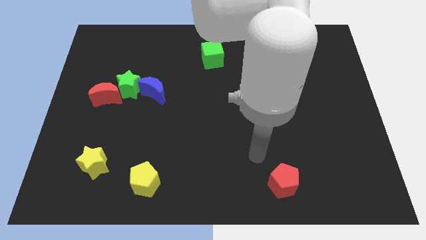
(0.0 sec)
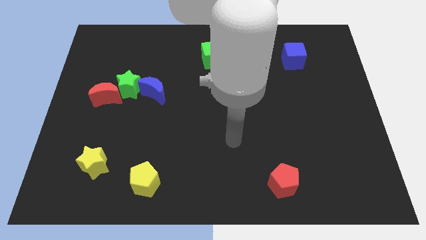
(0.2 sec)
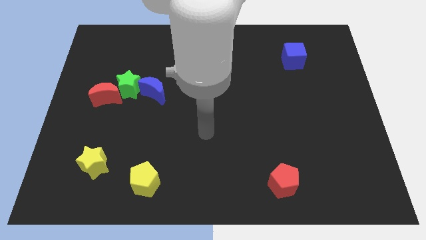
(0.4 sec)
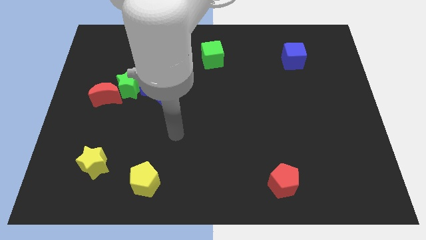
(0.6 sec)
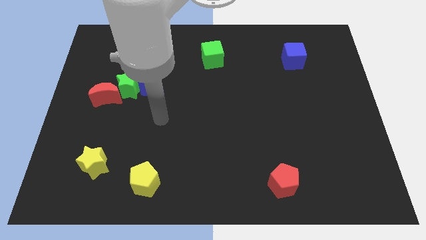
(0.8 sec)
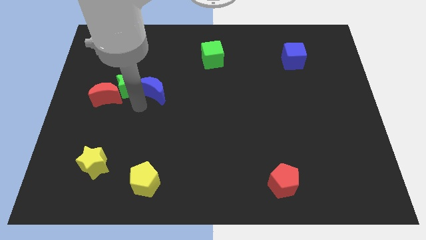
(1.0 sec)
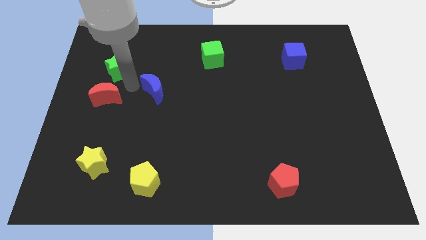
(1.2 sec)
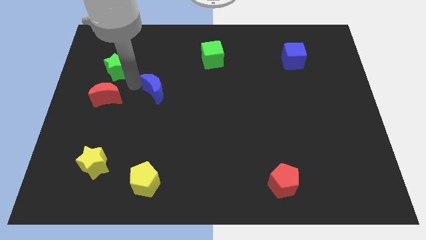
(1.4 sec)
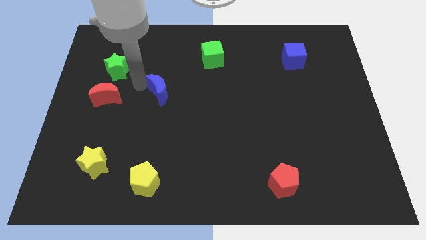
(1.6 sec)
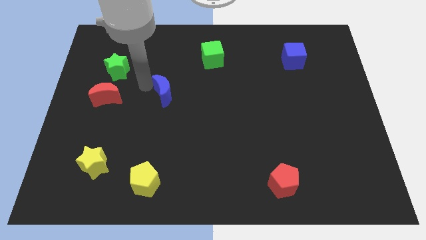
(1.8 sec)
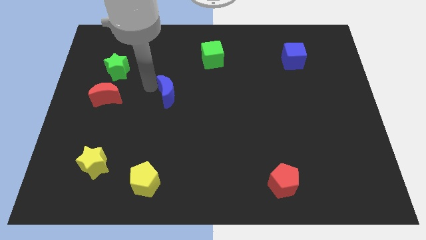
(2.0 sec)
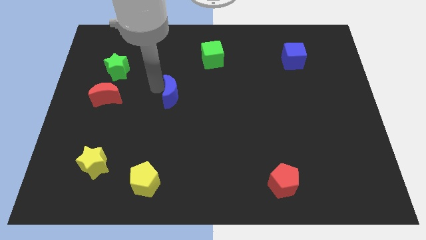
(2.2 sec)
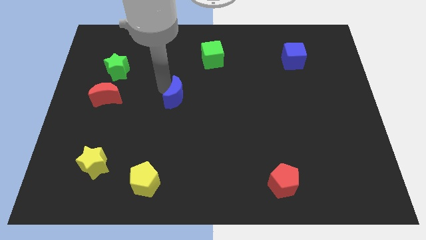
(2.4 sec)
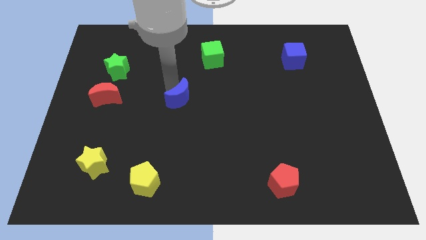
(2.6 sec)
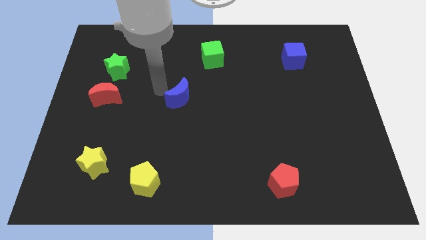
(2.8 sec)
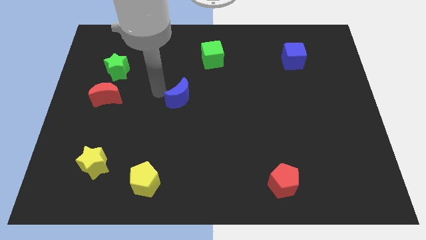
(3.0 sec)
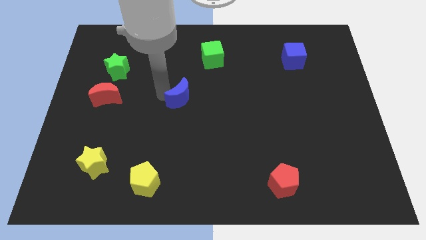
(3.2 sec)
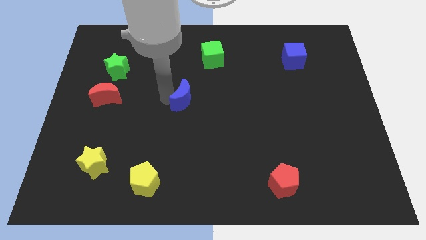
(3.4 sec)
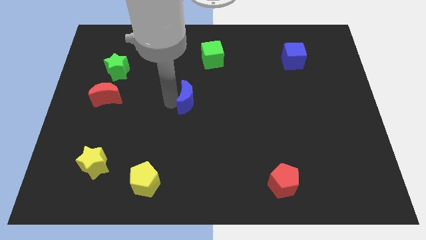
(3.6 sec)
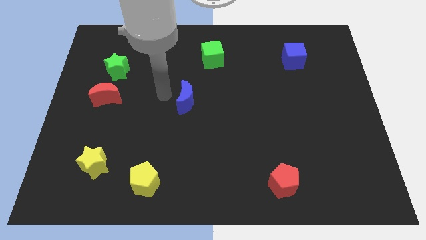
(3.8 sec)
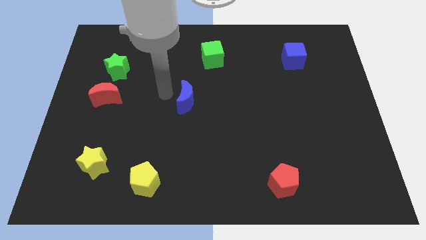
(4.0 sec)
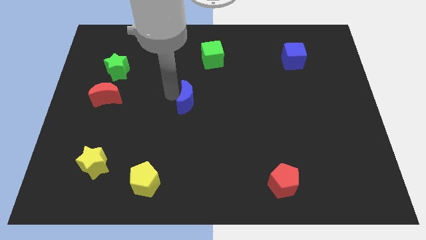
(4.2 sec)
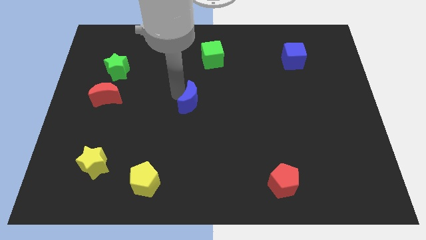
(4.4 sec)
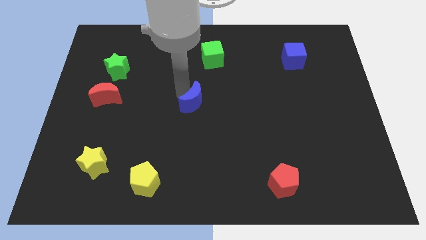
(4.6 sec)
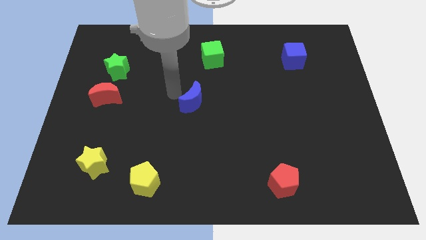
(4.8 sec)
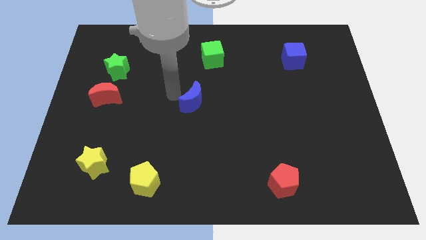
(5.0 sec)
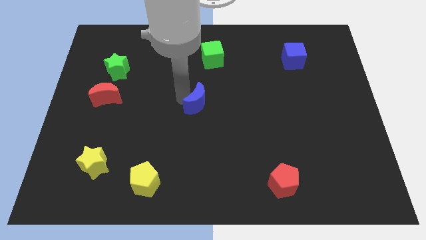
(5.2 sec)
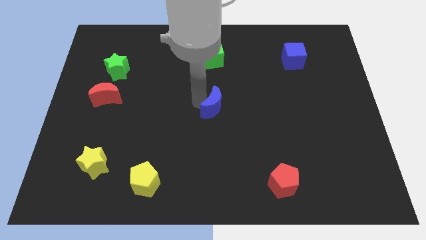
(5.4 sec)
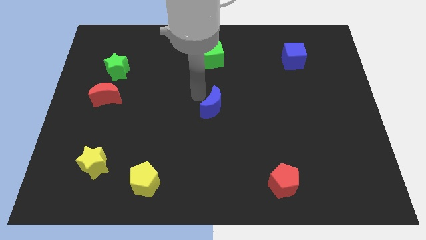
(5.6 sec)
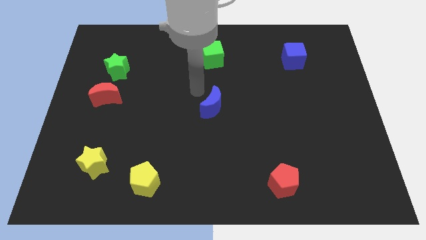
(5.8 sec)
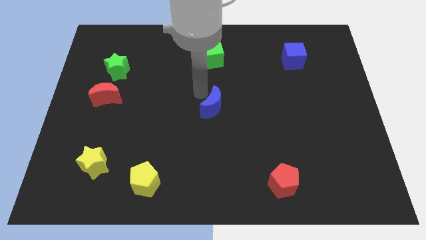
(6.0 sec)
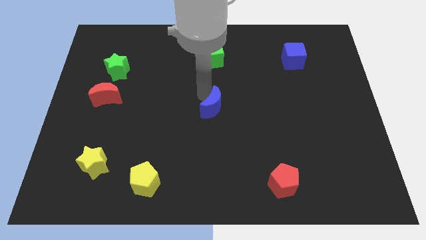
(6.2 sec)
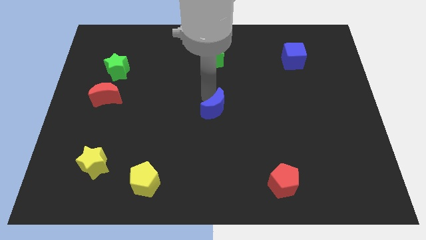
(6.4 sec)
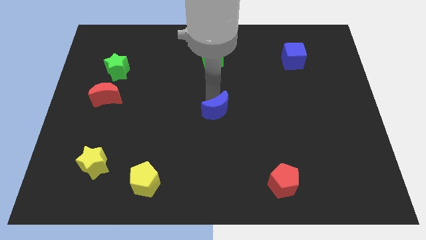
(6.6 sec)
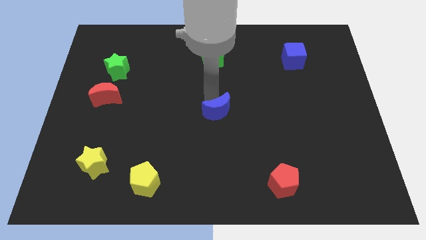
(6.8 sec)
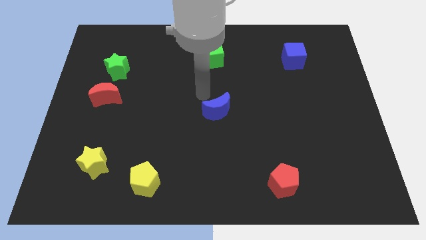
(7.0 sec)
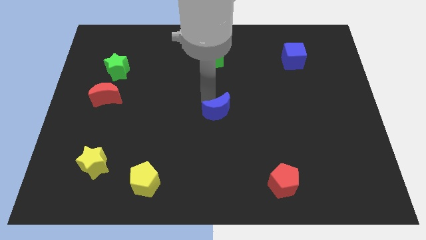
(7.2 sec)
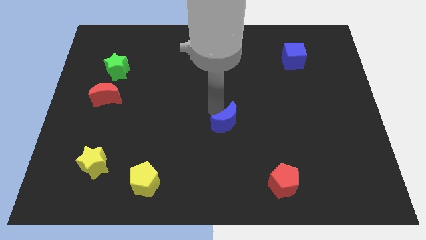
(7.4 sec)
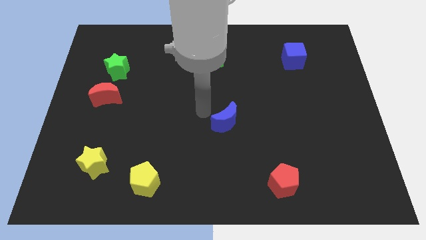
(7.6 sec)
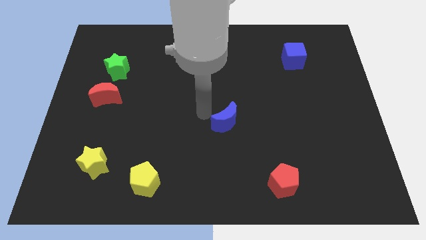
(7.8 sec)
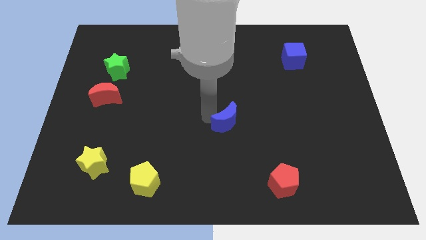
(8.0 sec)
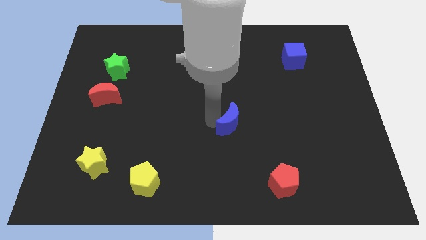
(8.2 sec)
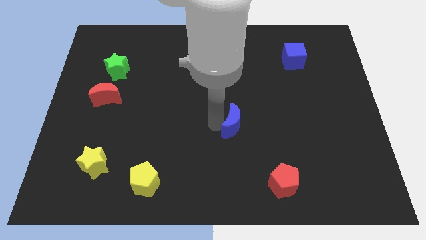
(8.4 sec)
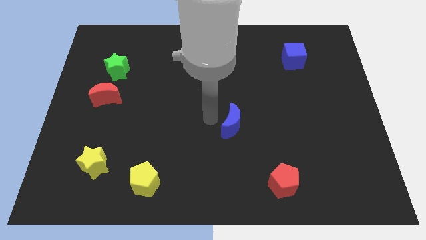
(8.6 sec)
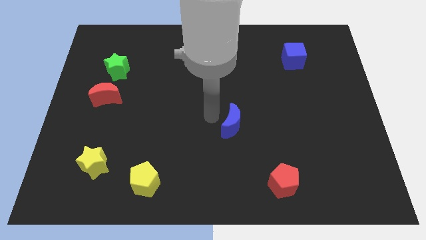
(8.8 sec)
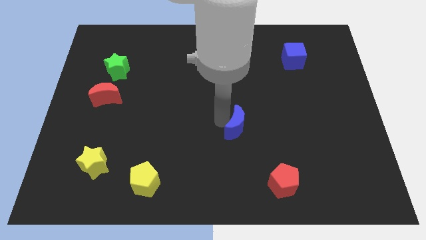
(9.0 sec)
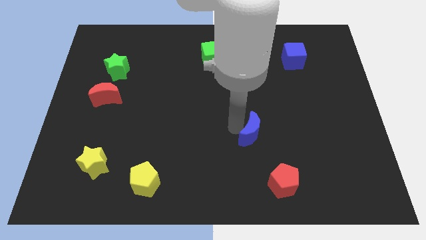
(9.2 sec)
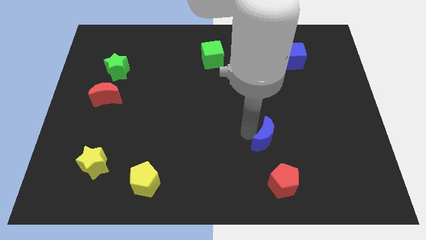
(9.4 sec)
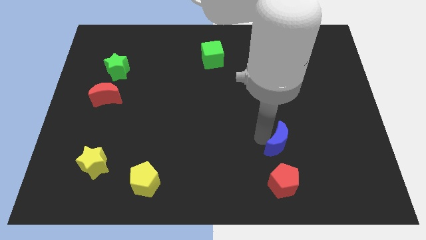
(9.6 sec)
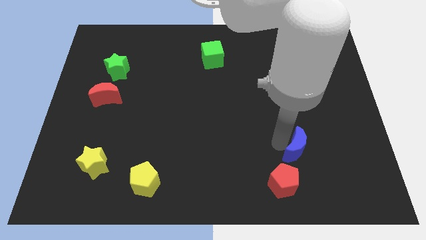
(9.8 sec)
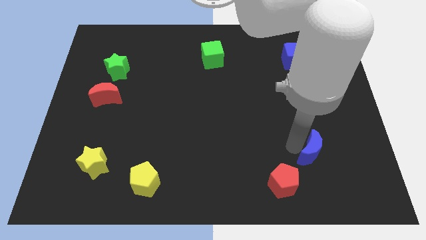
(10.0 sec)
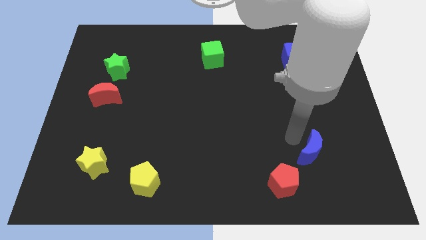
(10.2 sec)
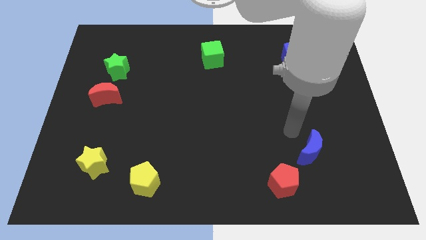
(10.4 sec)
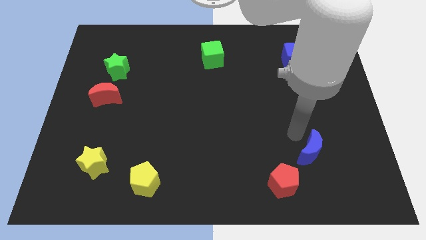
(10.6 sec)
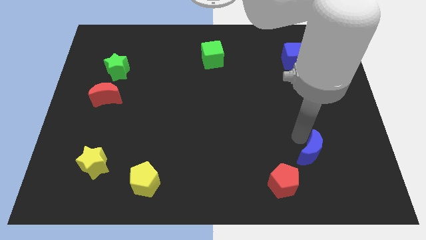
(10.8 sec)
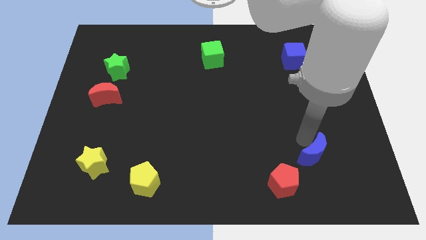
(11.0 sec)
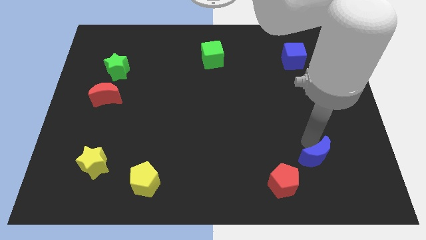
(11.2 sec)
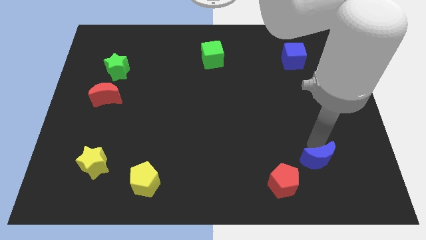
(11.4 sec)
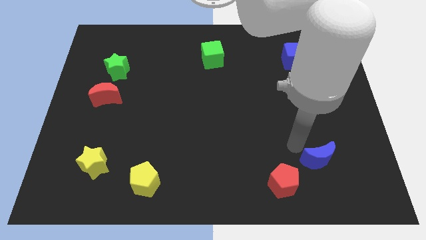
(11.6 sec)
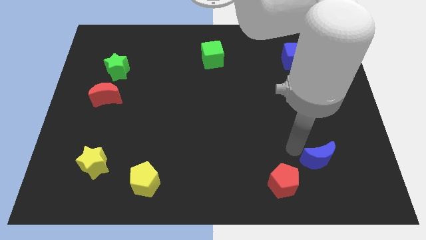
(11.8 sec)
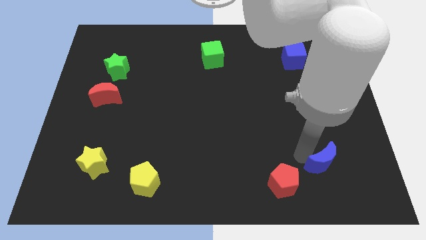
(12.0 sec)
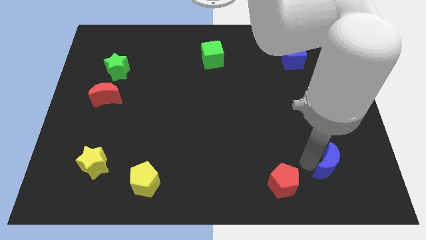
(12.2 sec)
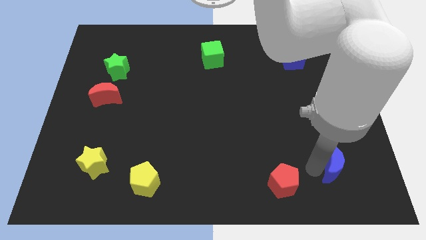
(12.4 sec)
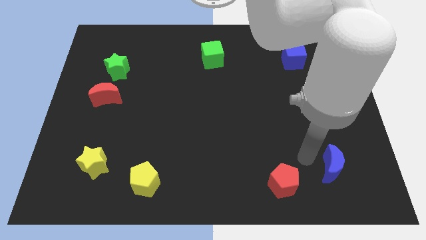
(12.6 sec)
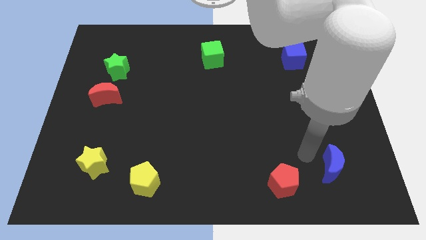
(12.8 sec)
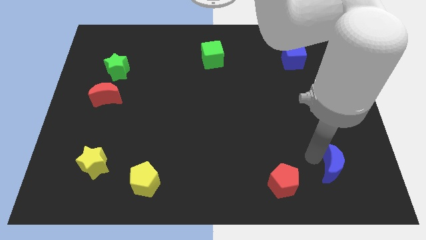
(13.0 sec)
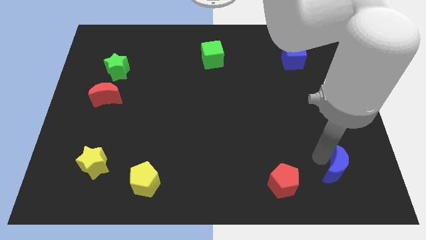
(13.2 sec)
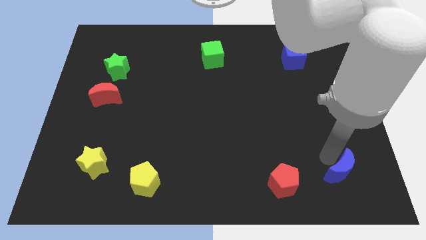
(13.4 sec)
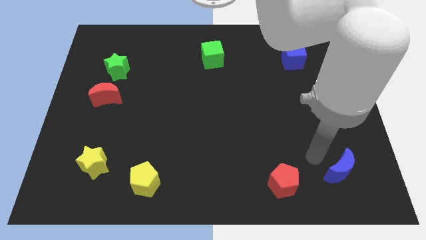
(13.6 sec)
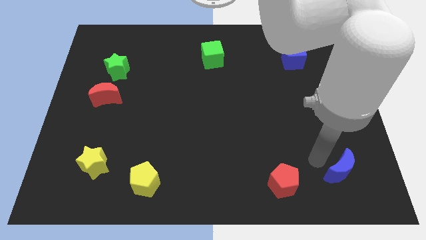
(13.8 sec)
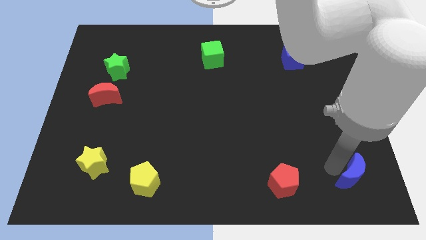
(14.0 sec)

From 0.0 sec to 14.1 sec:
move the blue moon to the bottom right
